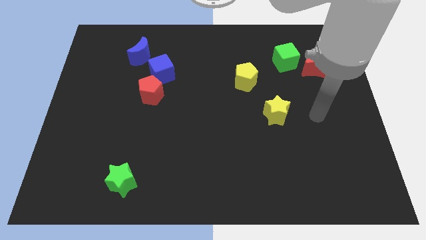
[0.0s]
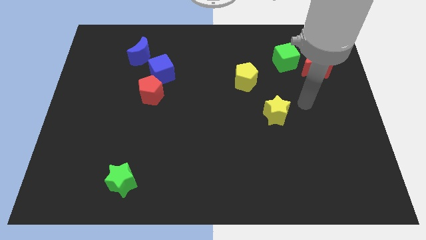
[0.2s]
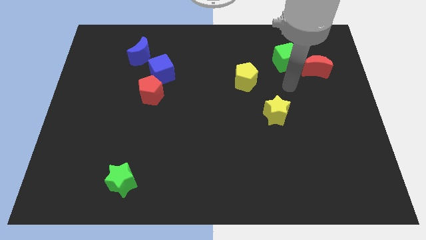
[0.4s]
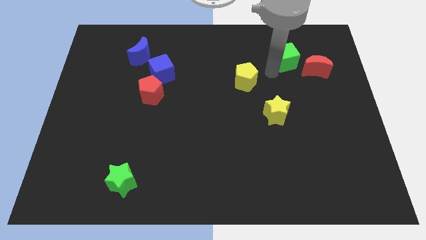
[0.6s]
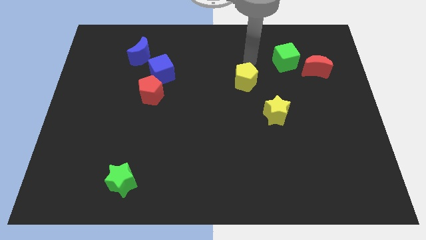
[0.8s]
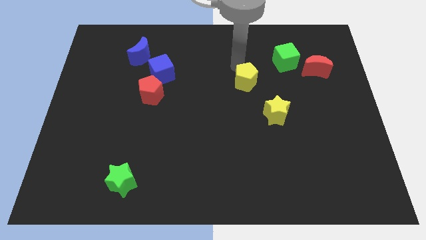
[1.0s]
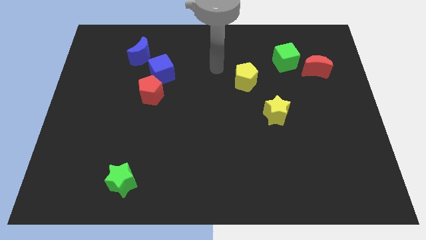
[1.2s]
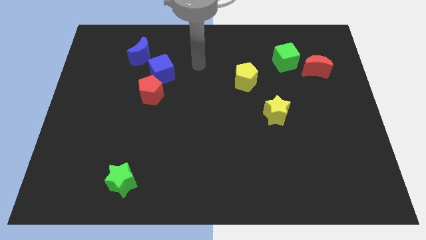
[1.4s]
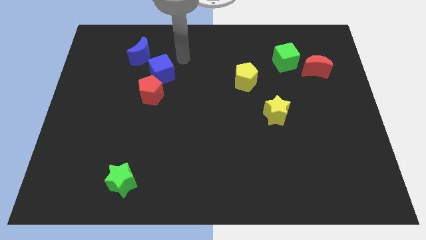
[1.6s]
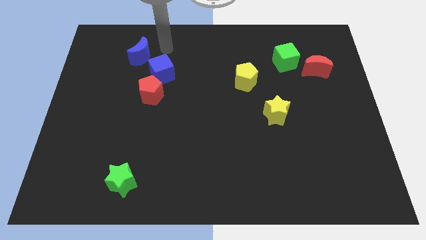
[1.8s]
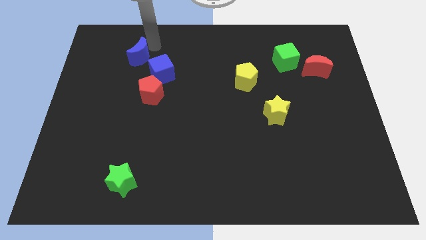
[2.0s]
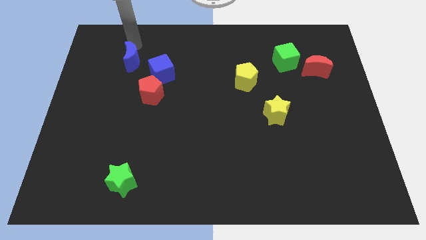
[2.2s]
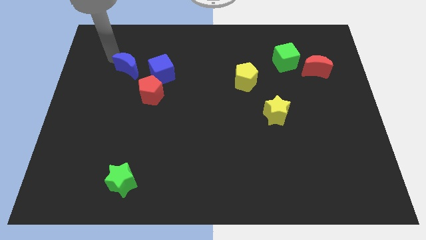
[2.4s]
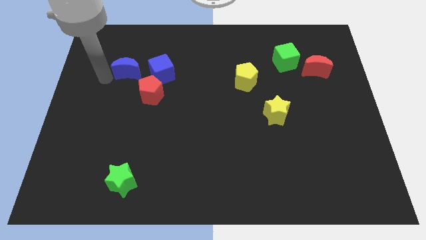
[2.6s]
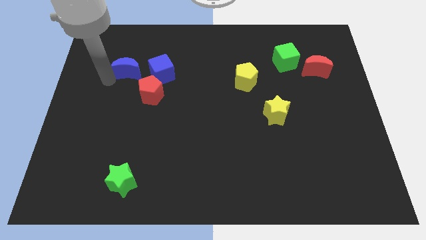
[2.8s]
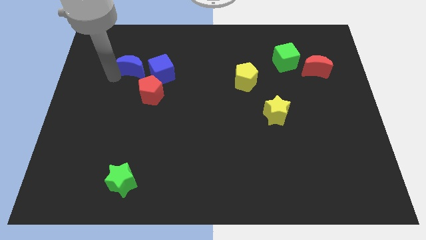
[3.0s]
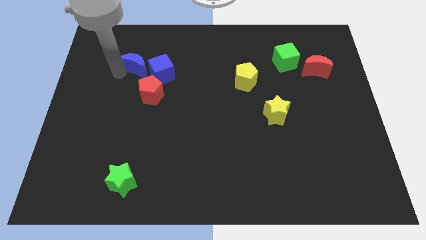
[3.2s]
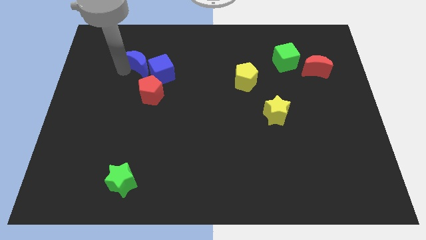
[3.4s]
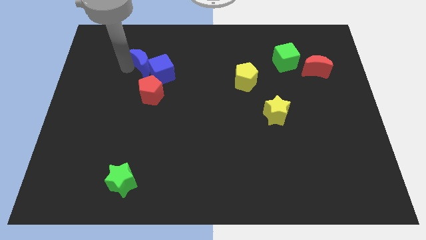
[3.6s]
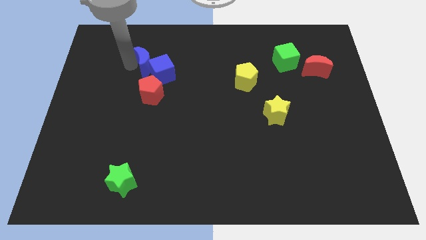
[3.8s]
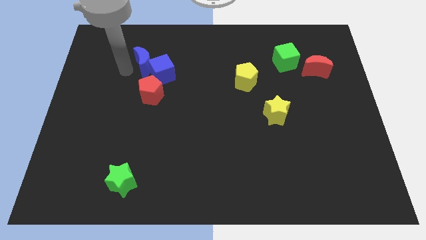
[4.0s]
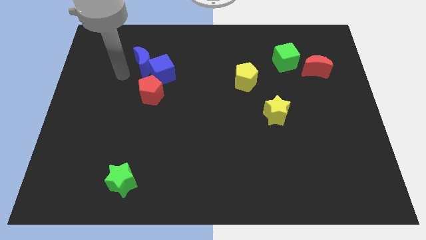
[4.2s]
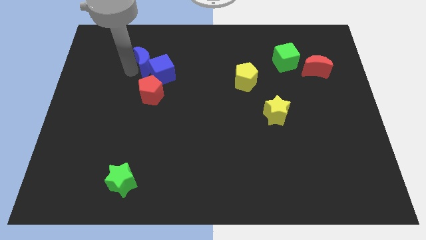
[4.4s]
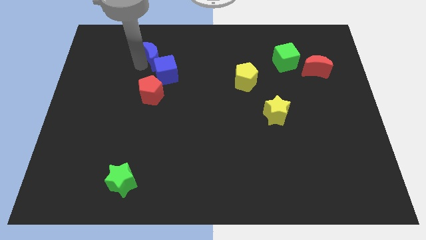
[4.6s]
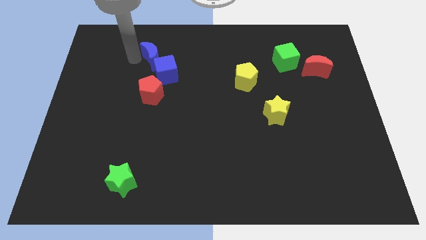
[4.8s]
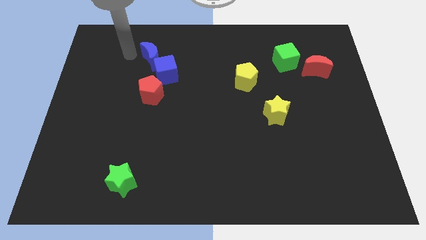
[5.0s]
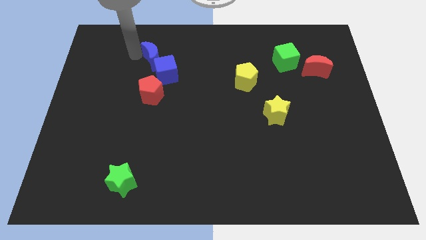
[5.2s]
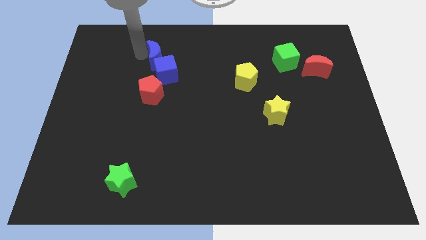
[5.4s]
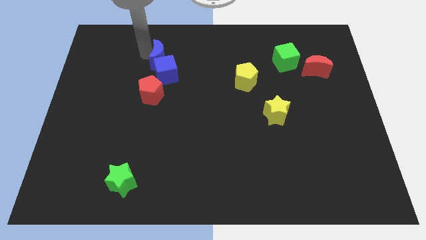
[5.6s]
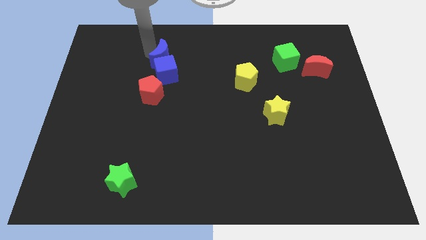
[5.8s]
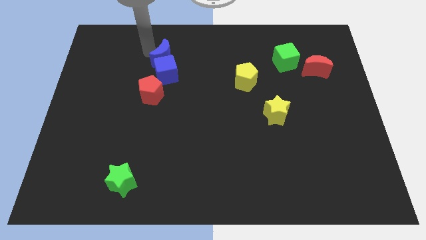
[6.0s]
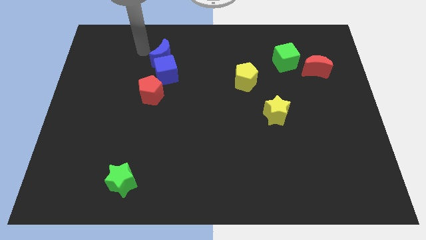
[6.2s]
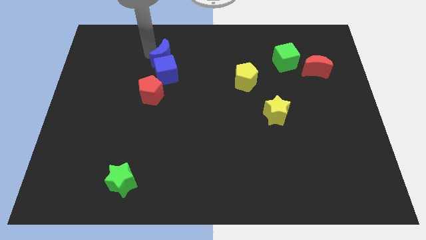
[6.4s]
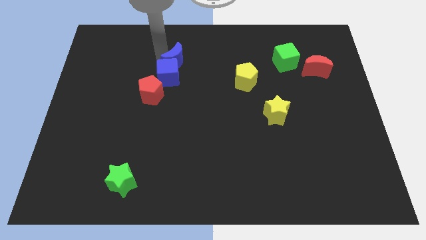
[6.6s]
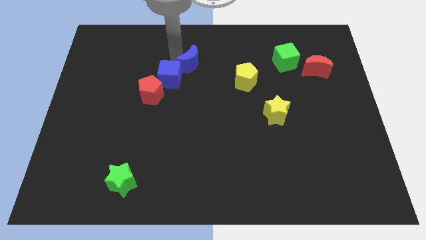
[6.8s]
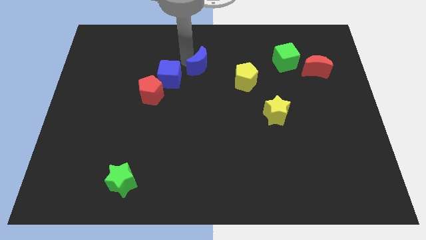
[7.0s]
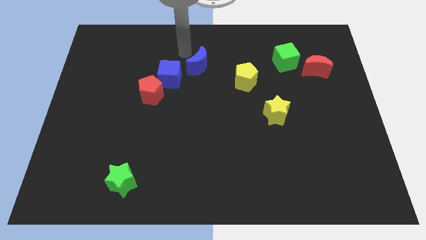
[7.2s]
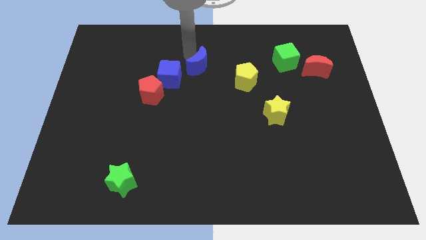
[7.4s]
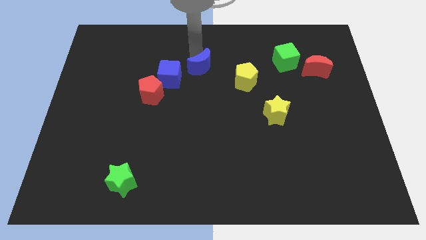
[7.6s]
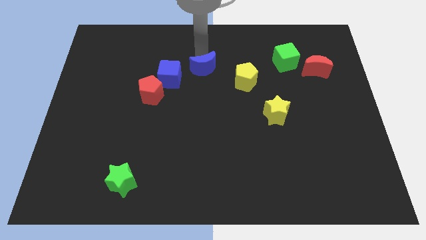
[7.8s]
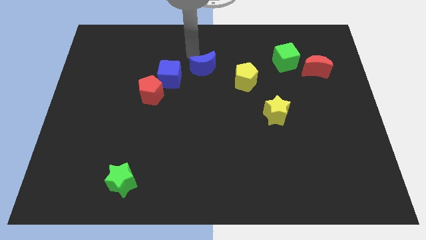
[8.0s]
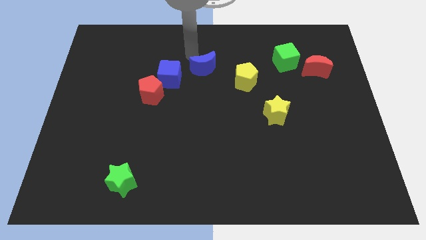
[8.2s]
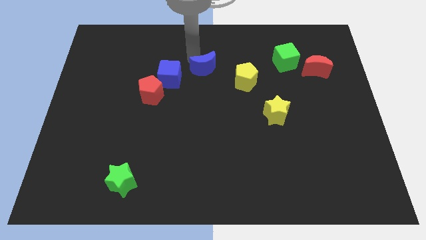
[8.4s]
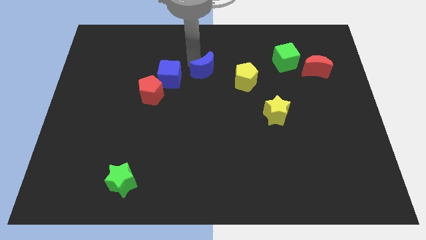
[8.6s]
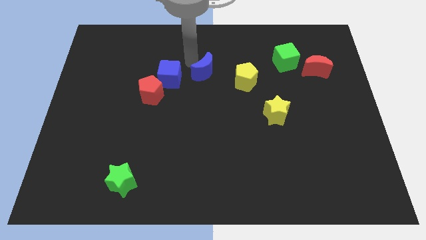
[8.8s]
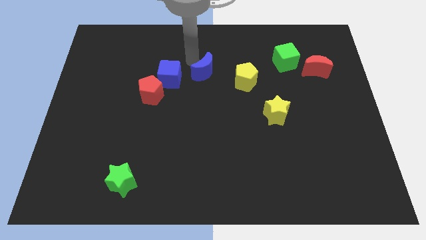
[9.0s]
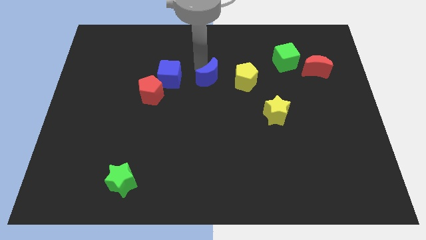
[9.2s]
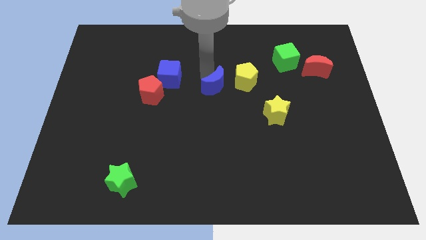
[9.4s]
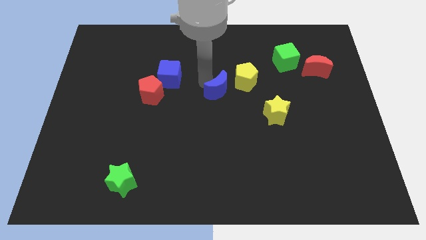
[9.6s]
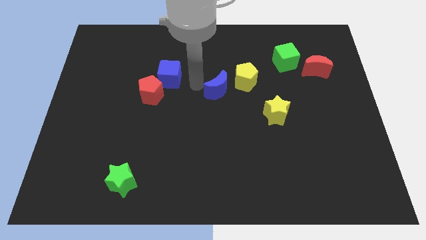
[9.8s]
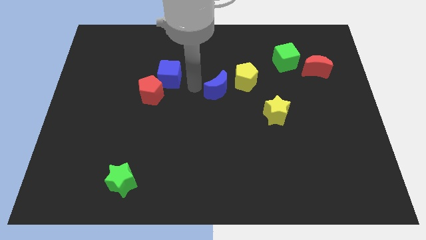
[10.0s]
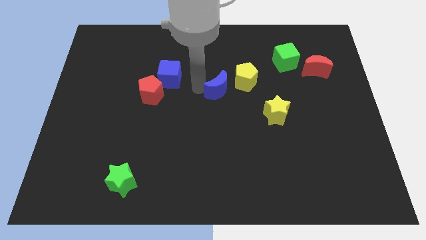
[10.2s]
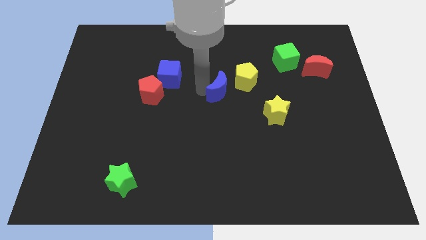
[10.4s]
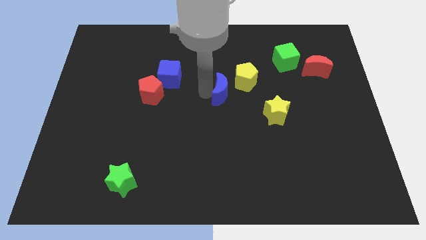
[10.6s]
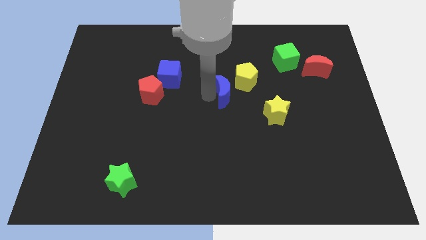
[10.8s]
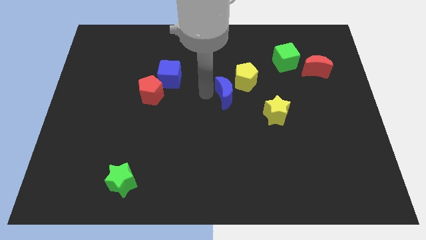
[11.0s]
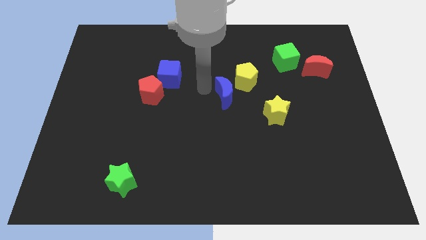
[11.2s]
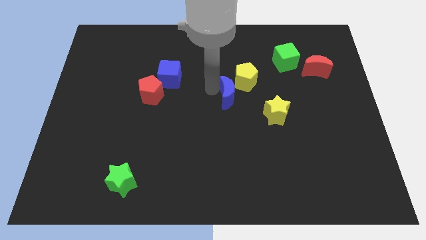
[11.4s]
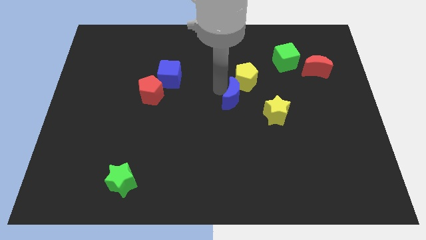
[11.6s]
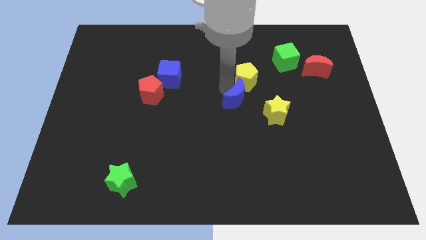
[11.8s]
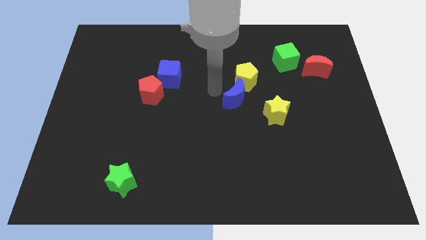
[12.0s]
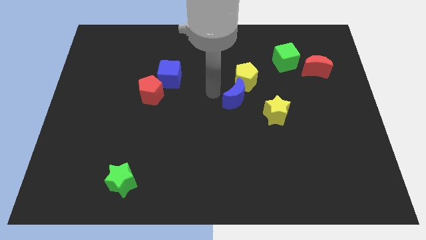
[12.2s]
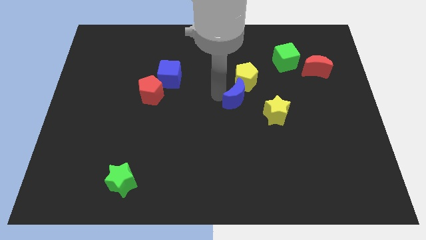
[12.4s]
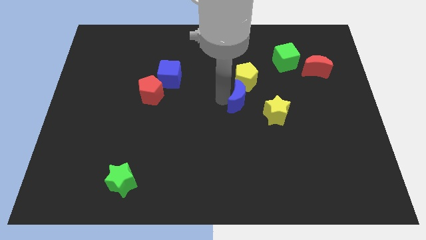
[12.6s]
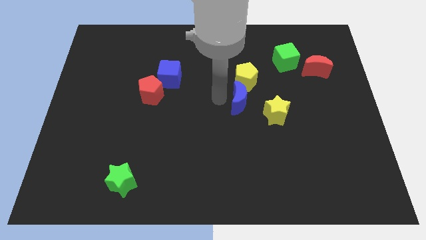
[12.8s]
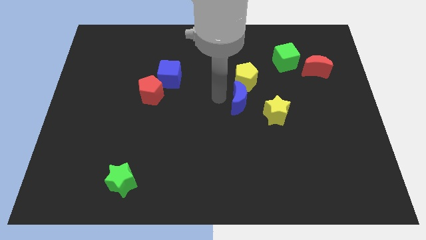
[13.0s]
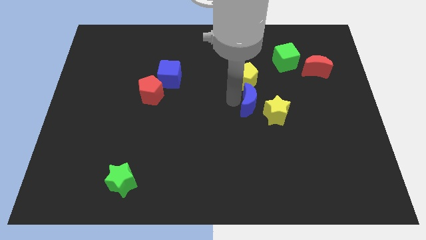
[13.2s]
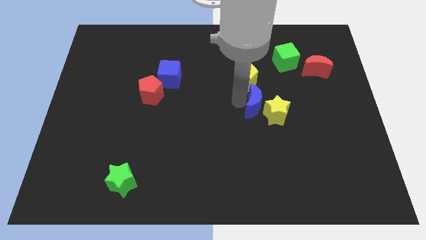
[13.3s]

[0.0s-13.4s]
put the blue moon to the yellow star

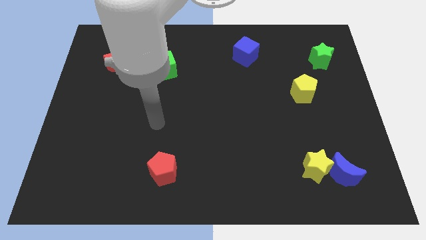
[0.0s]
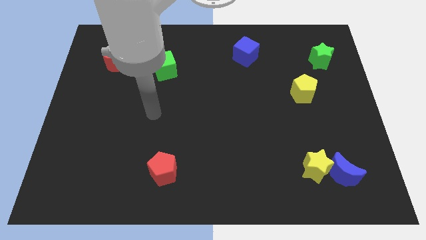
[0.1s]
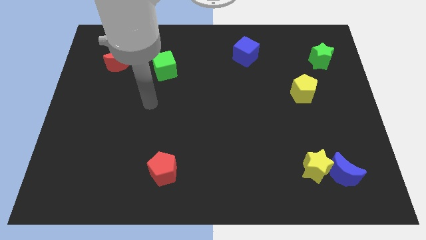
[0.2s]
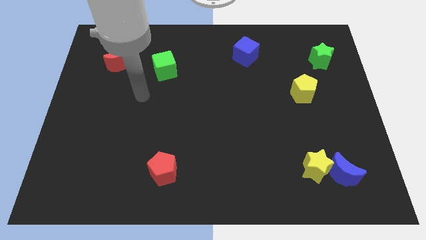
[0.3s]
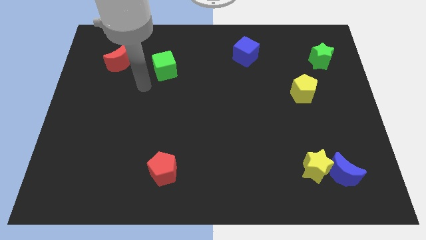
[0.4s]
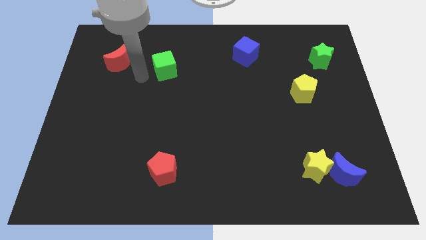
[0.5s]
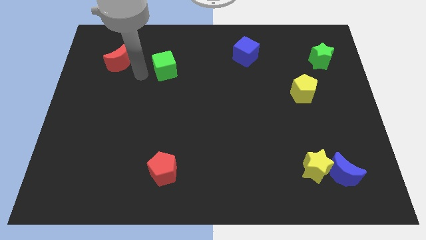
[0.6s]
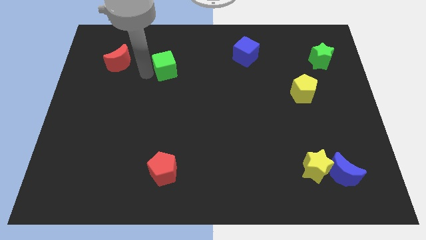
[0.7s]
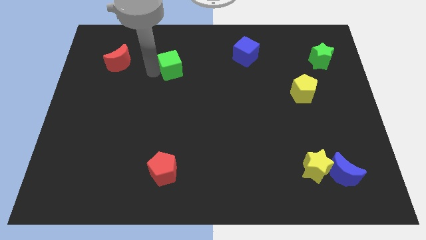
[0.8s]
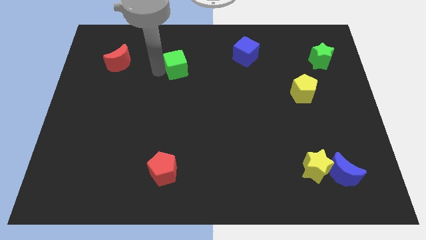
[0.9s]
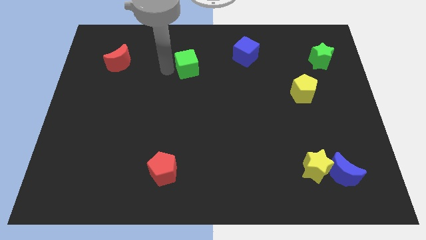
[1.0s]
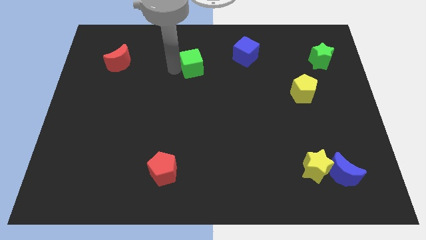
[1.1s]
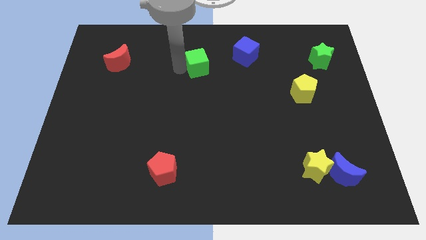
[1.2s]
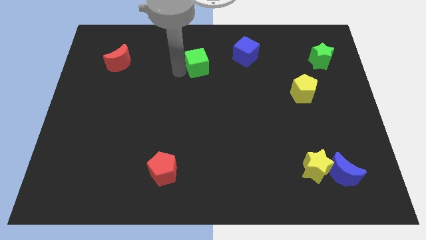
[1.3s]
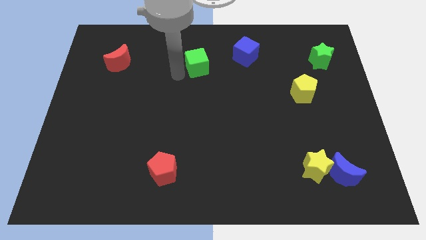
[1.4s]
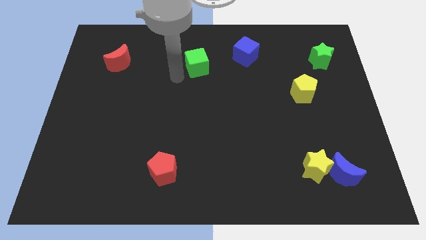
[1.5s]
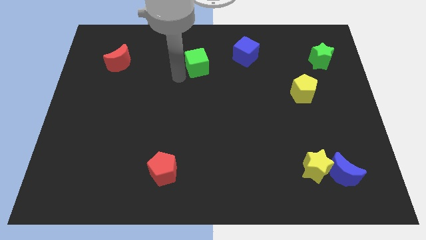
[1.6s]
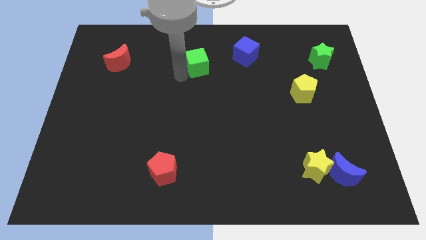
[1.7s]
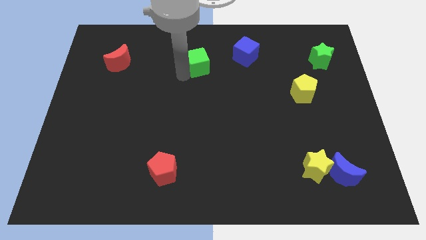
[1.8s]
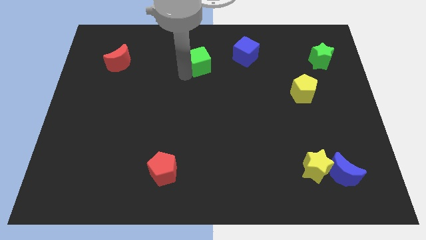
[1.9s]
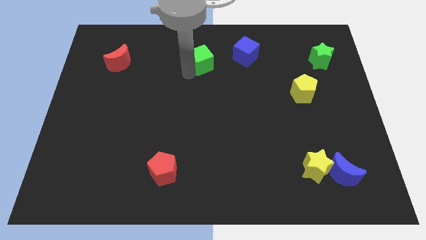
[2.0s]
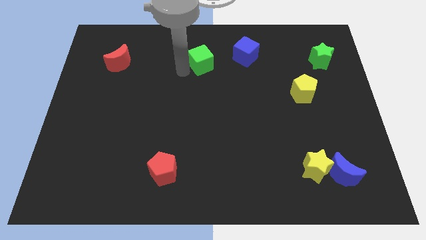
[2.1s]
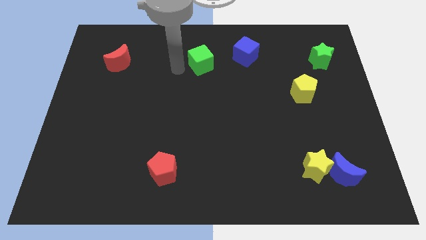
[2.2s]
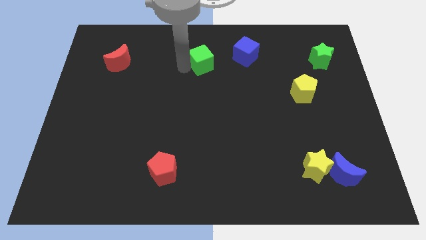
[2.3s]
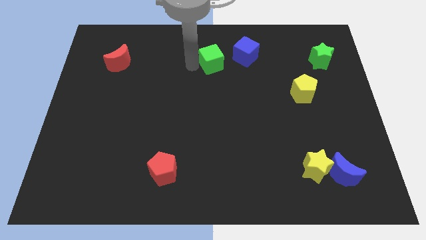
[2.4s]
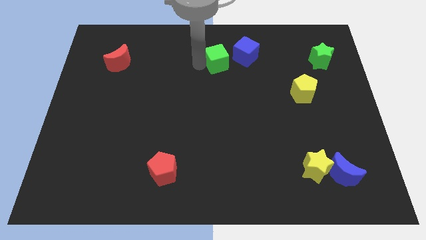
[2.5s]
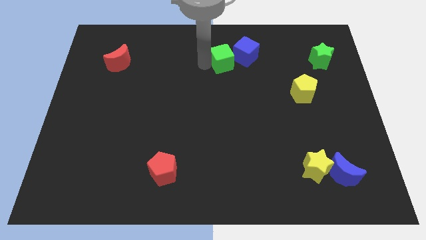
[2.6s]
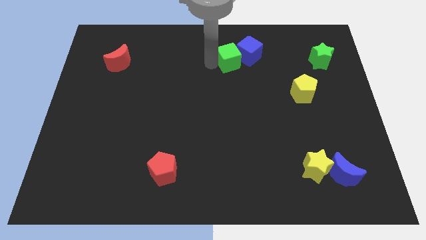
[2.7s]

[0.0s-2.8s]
move the green cube close to the blue cube
